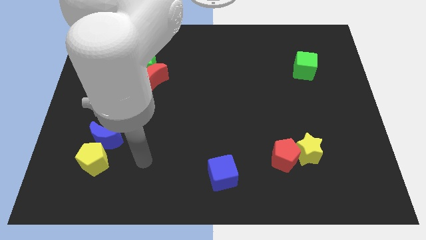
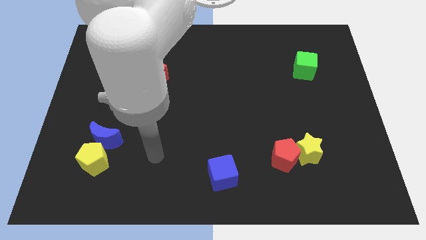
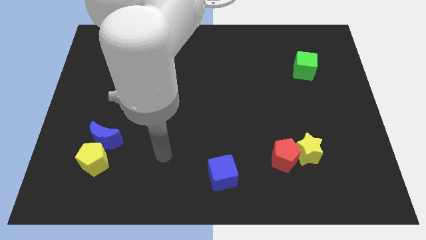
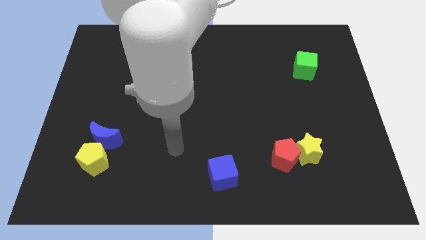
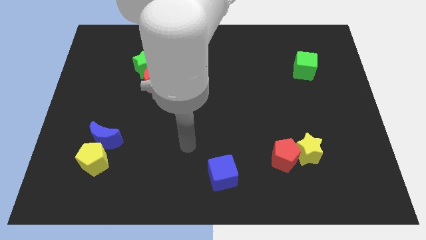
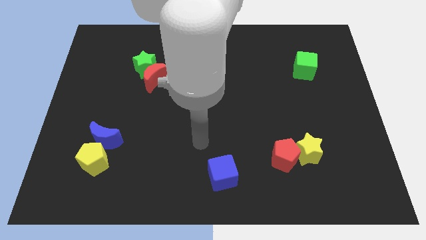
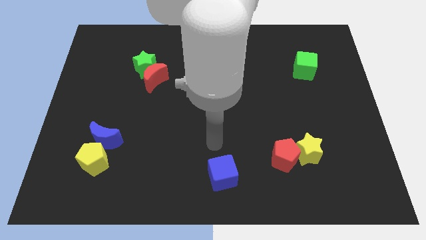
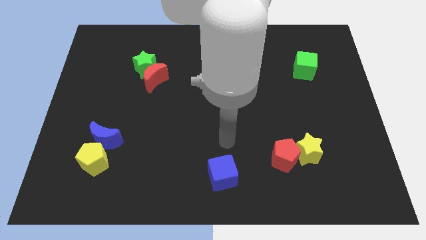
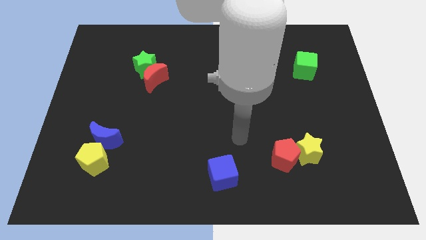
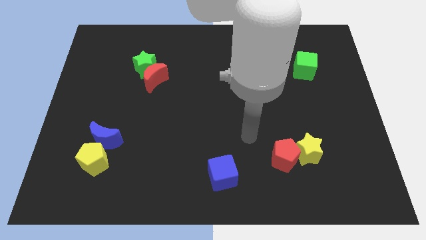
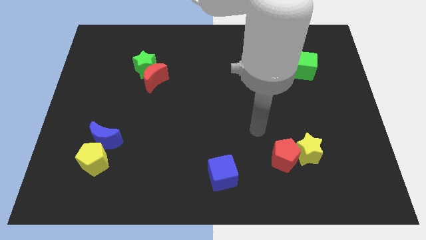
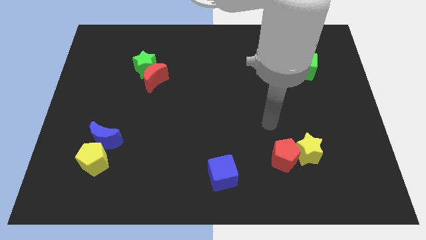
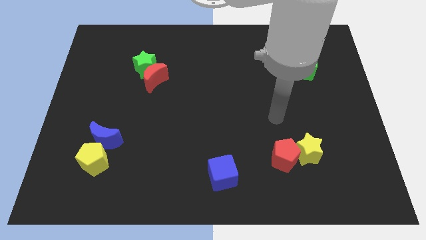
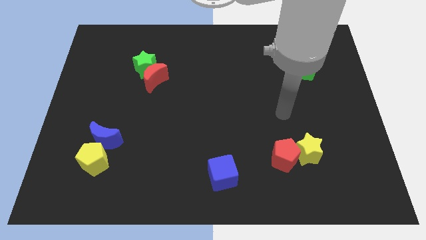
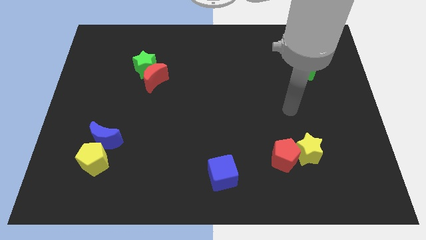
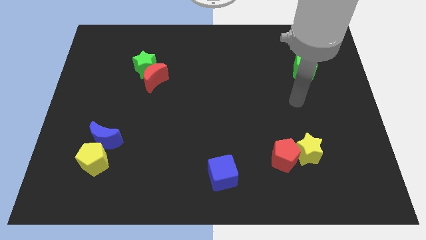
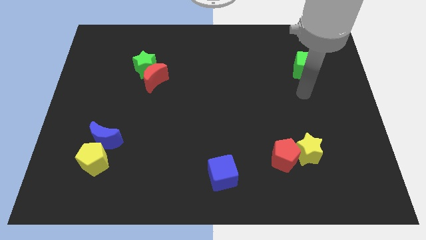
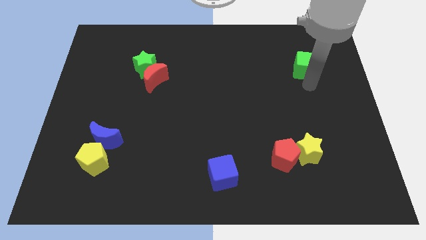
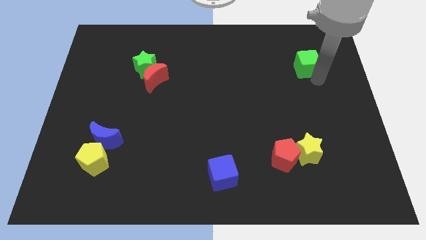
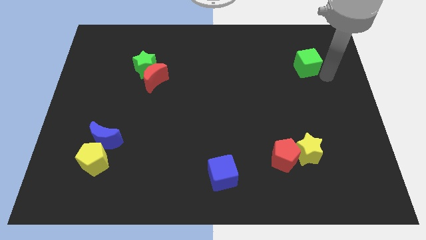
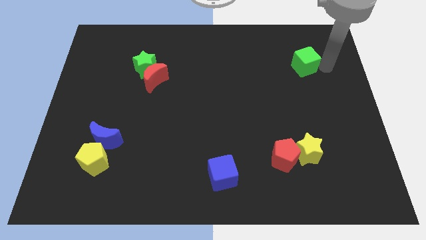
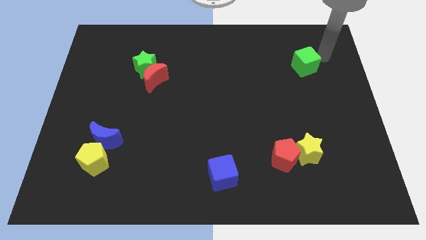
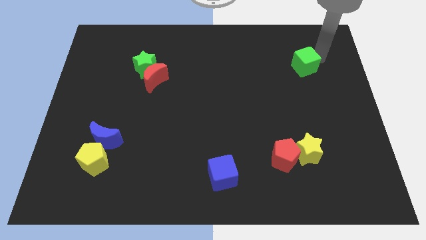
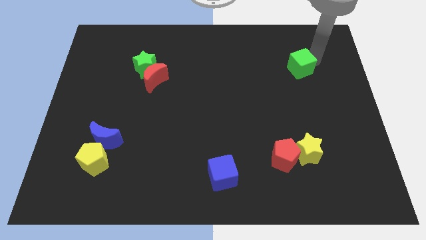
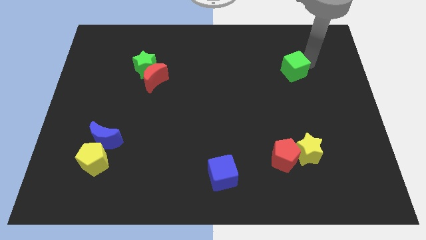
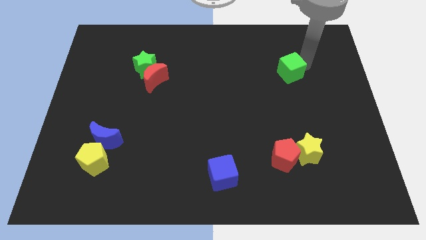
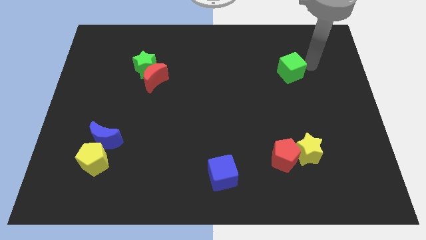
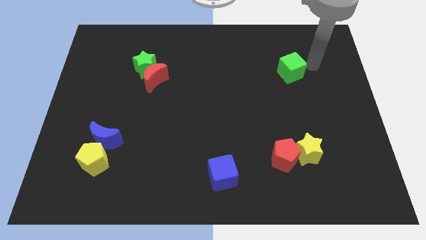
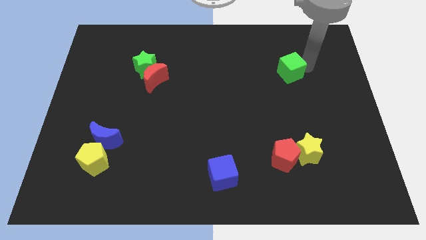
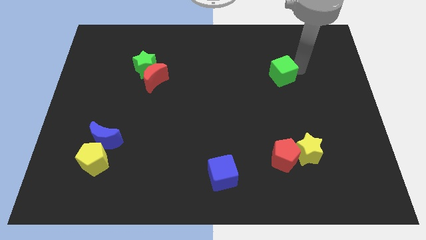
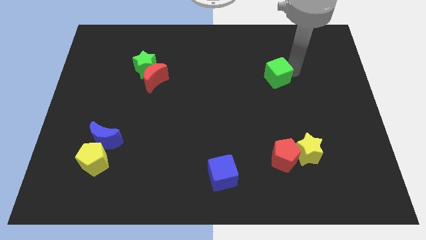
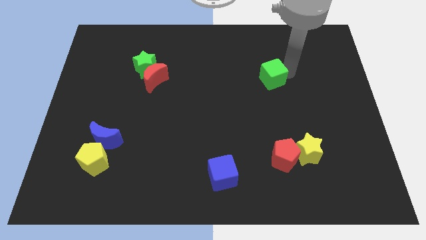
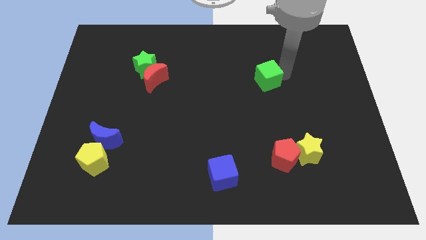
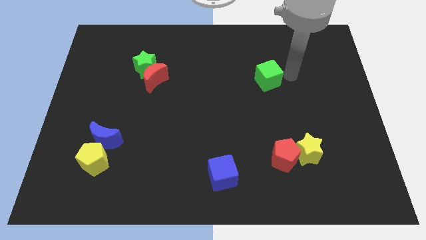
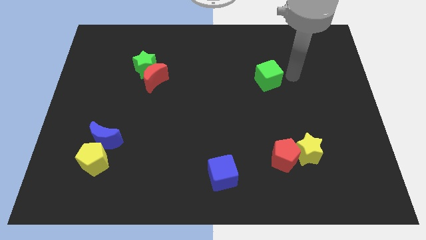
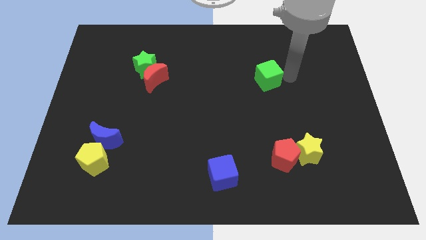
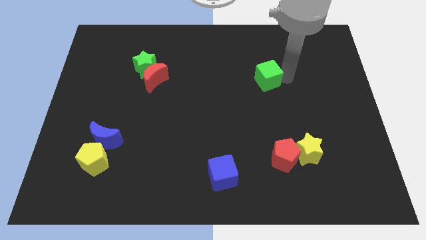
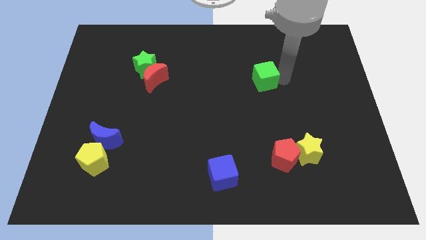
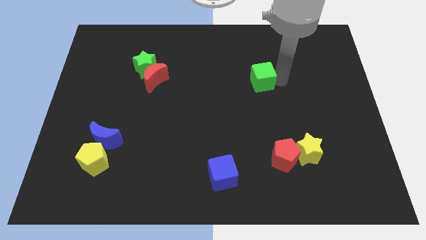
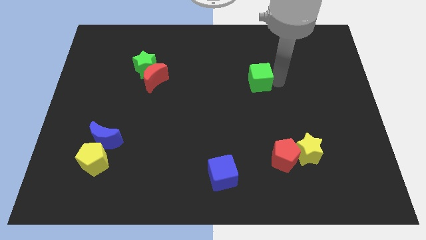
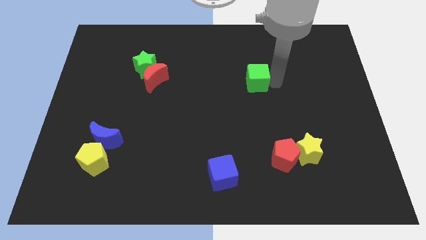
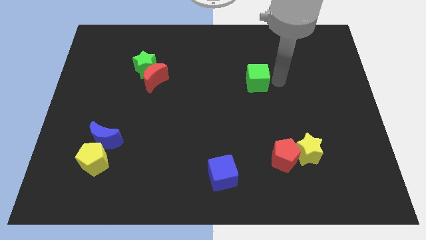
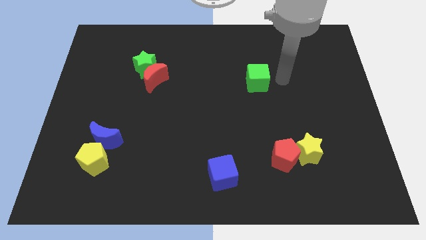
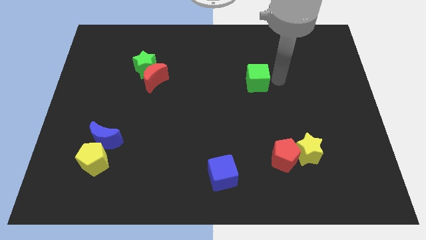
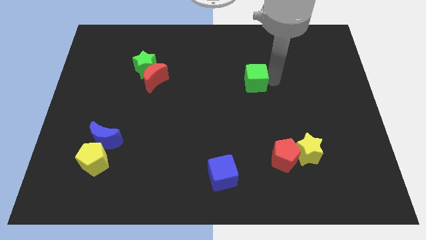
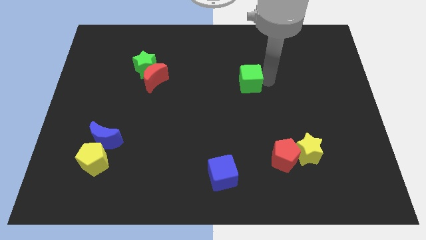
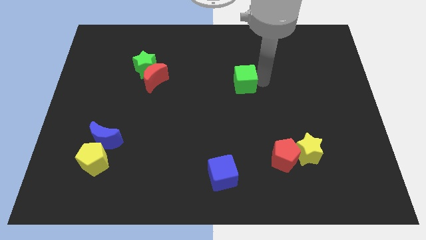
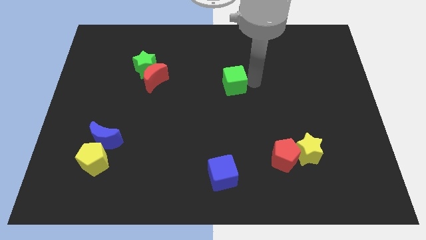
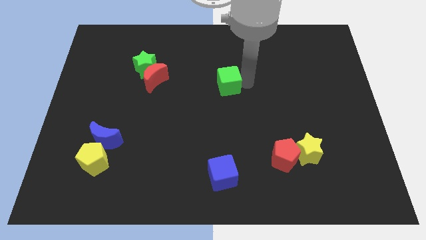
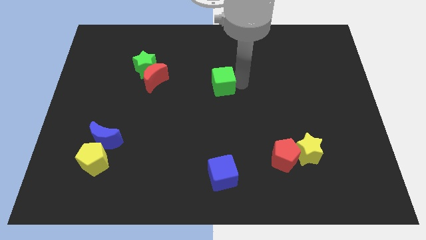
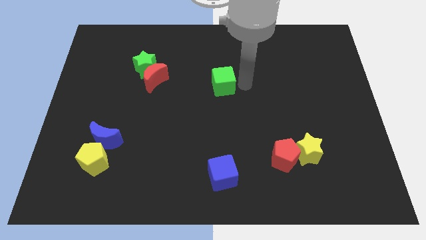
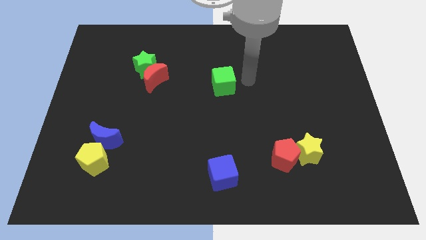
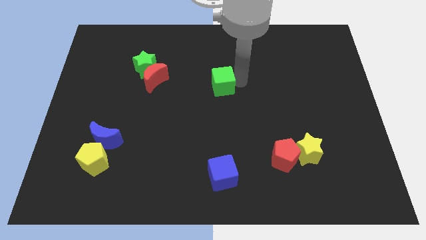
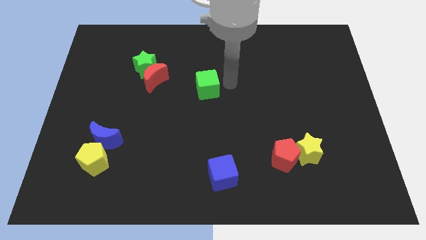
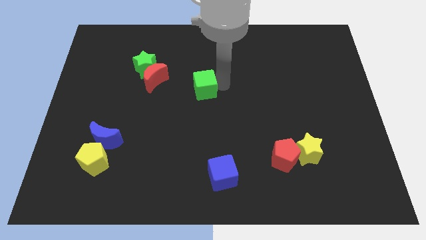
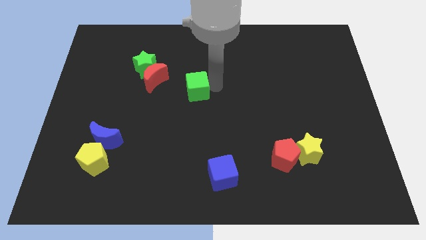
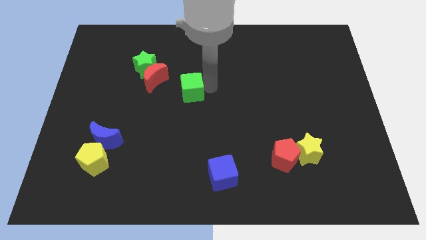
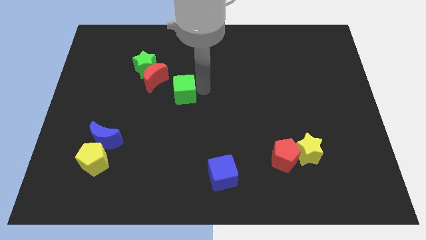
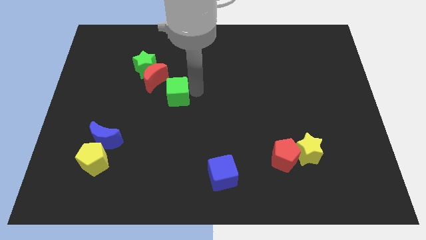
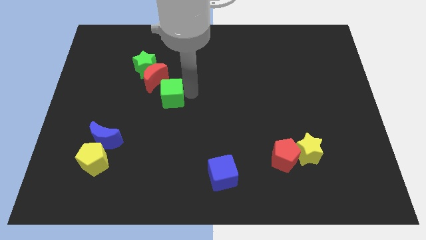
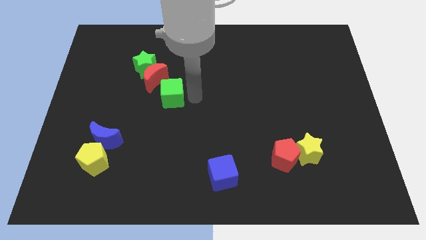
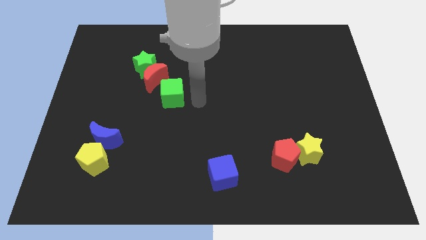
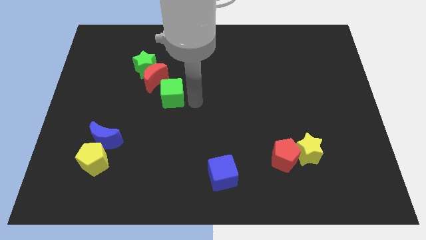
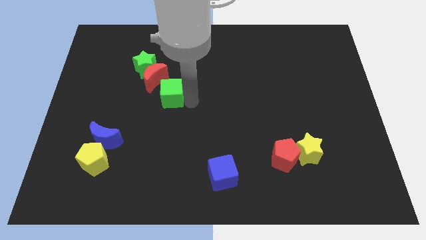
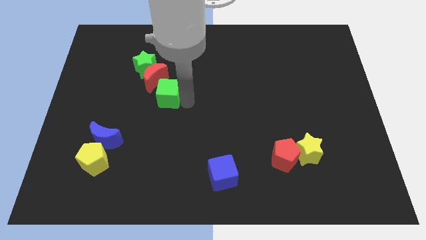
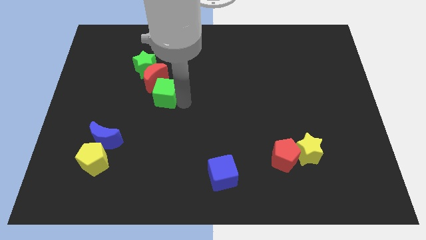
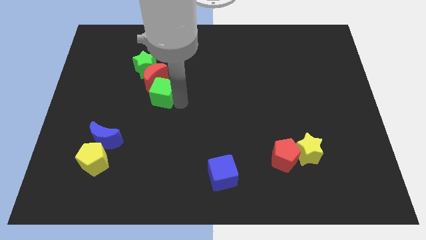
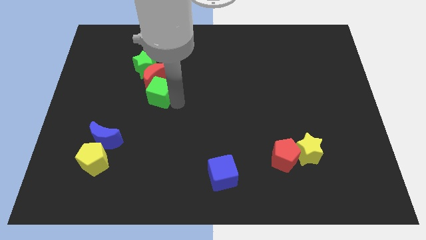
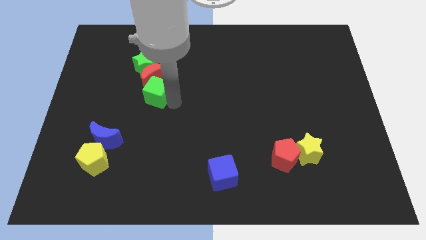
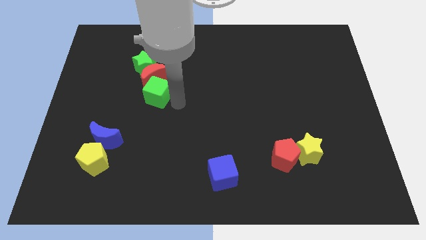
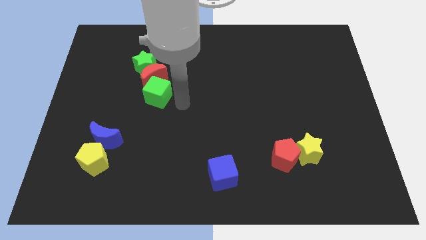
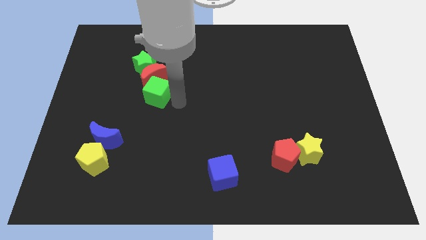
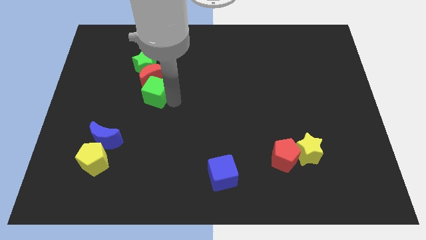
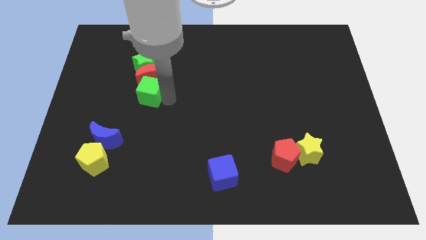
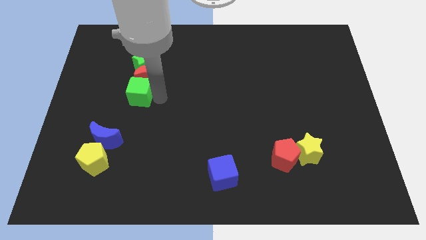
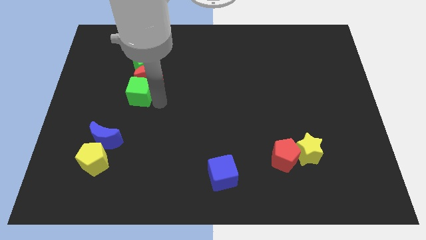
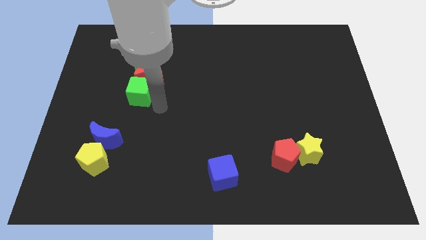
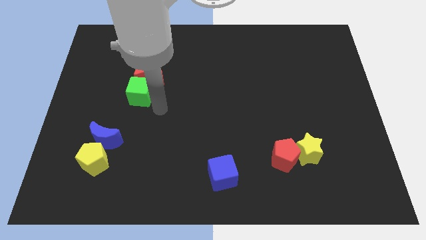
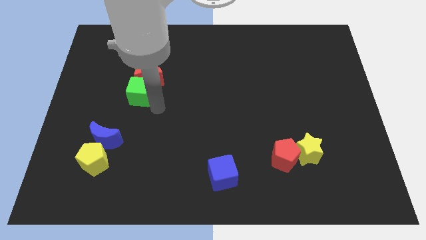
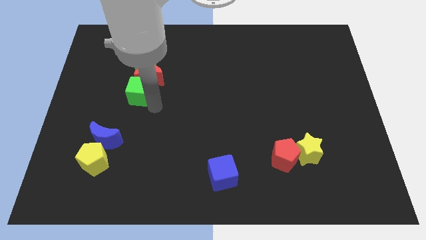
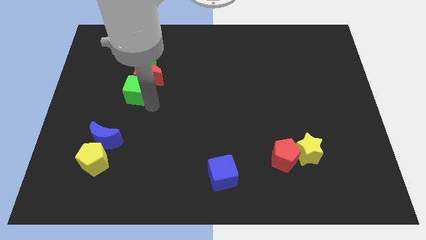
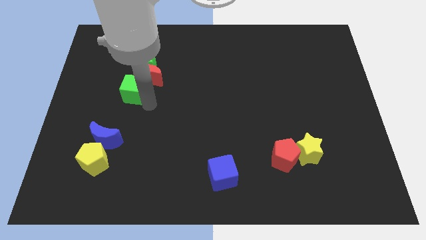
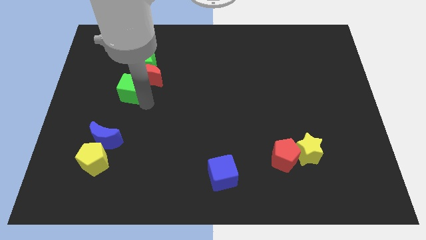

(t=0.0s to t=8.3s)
move the green cube diagonally down and to the left of the green star

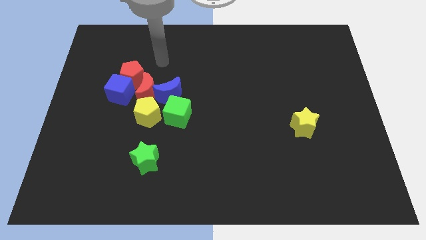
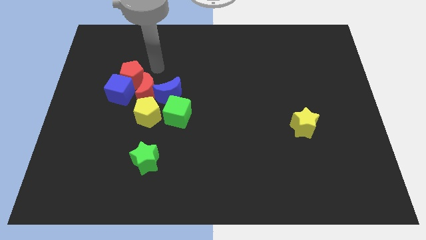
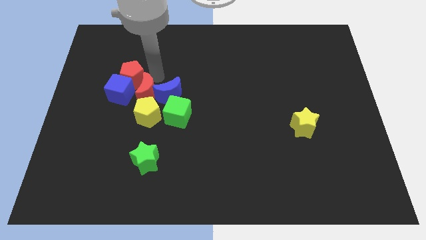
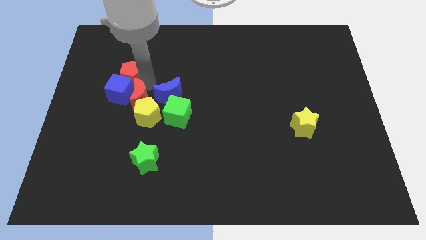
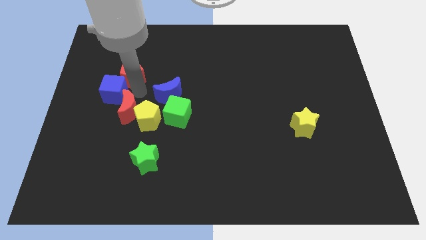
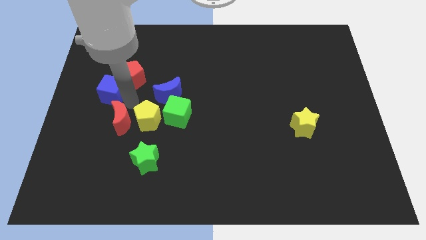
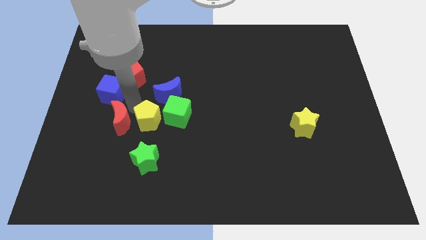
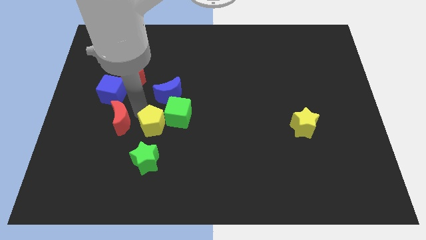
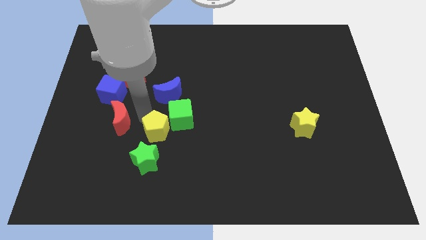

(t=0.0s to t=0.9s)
push the yellow pentagon diagonally up and to the right of the green star
